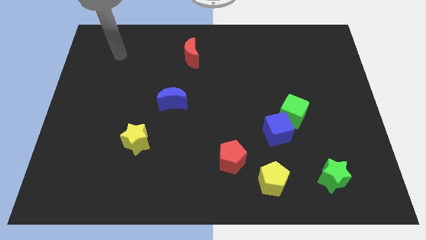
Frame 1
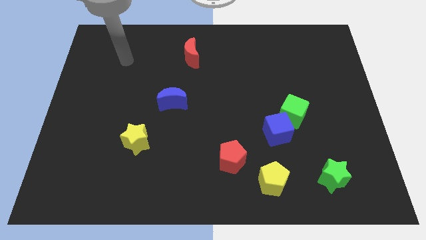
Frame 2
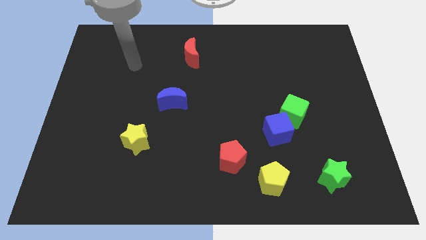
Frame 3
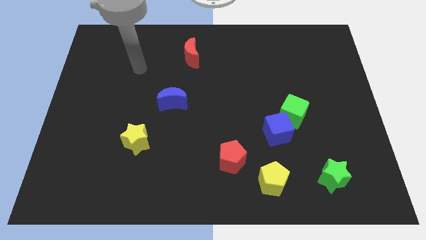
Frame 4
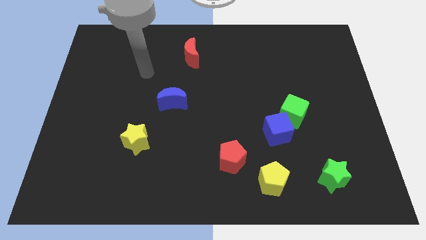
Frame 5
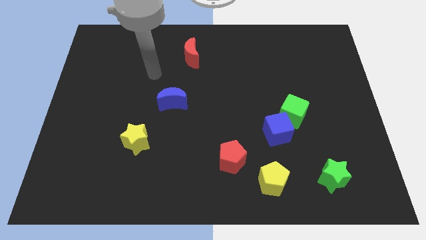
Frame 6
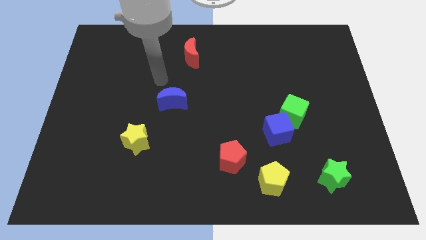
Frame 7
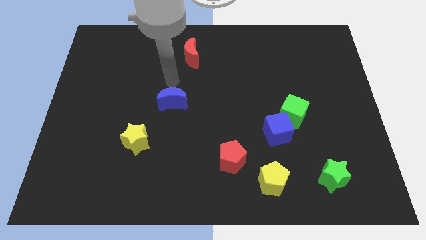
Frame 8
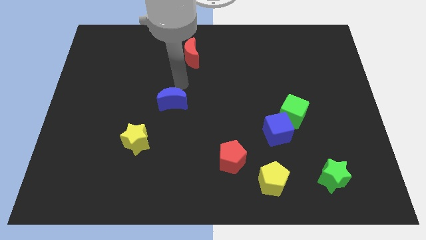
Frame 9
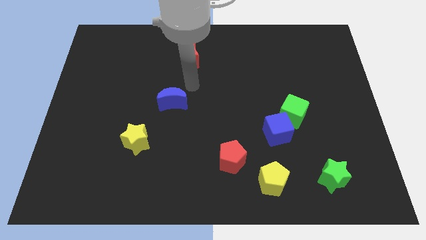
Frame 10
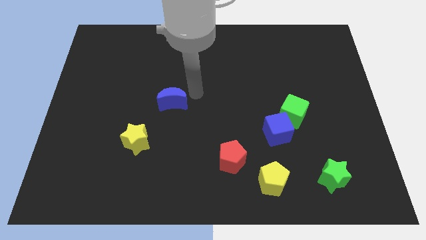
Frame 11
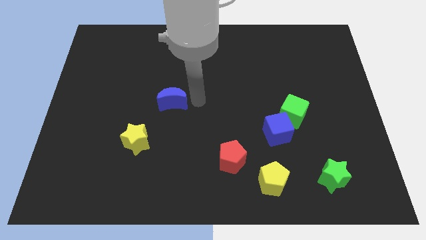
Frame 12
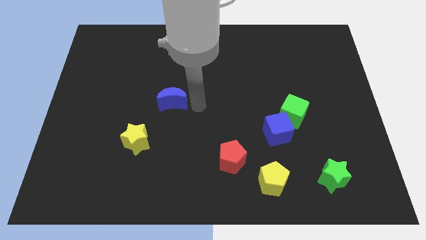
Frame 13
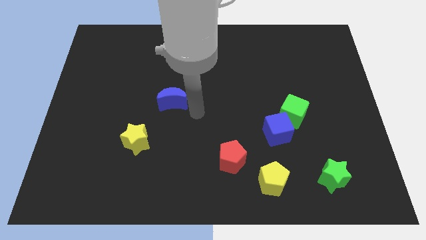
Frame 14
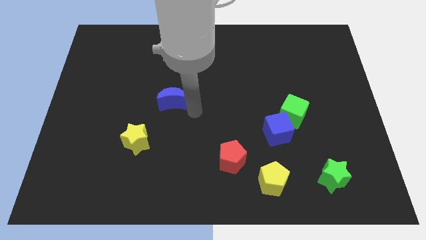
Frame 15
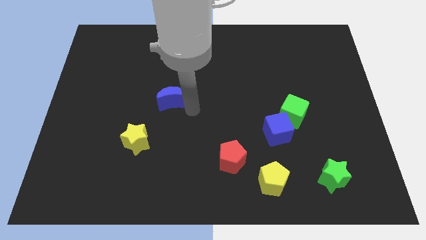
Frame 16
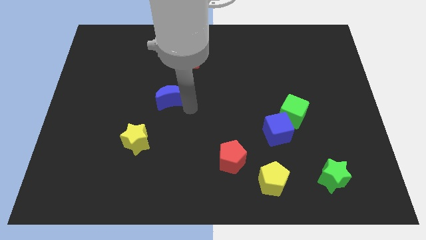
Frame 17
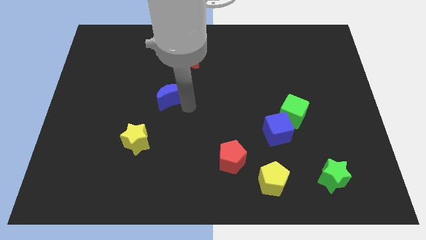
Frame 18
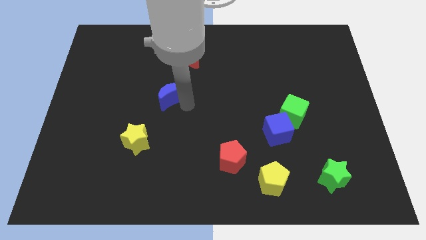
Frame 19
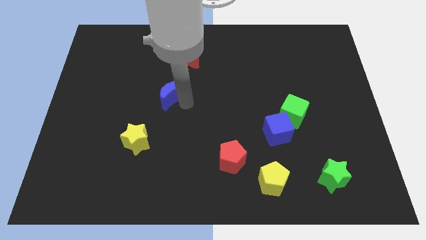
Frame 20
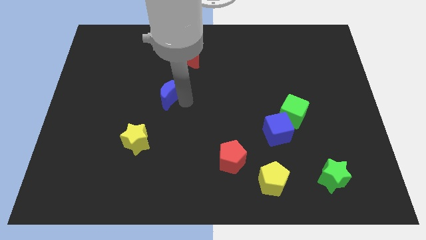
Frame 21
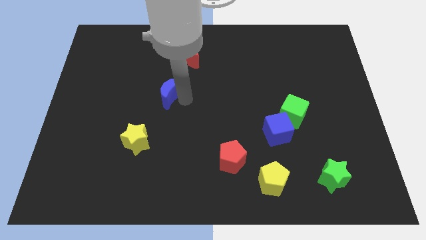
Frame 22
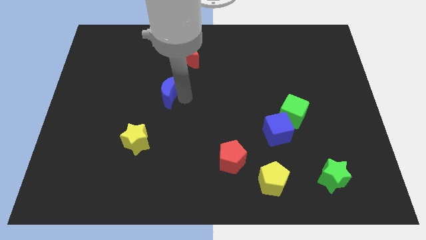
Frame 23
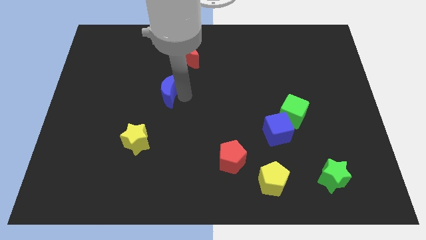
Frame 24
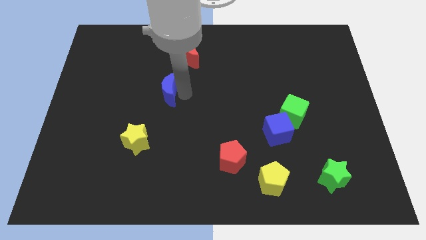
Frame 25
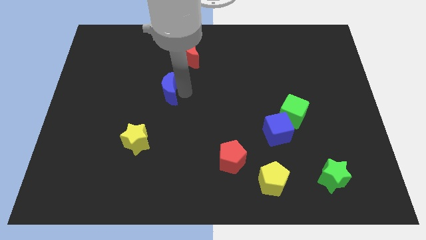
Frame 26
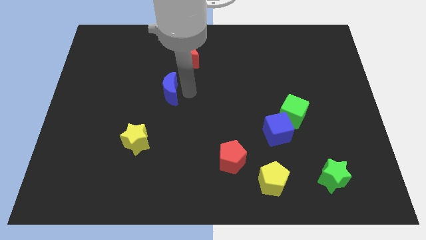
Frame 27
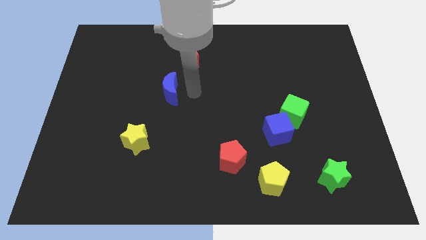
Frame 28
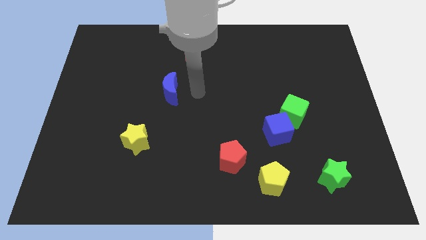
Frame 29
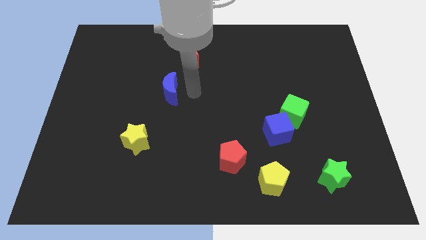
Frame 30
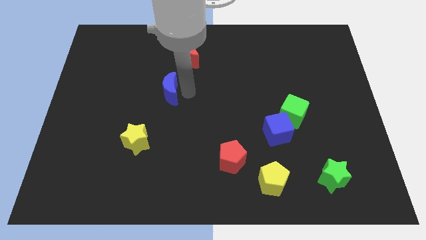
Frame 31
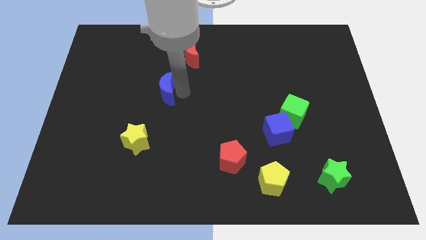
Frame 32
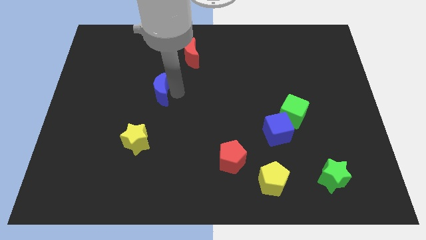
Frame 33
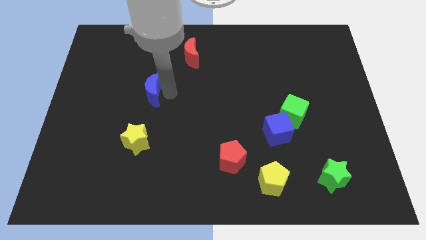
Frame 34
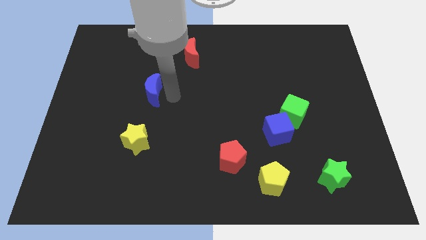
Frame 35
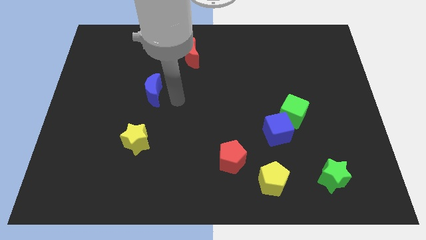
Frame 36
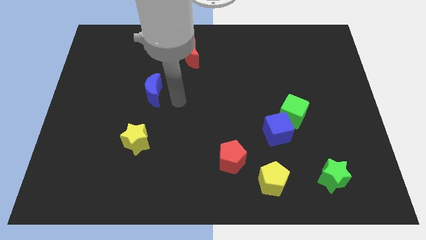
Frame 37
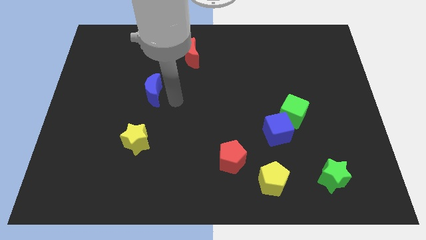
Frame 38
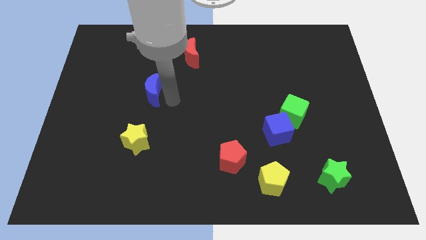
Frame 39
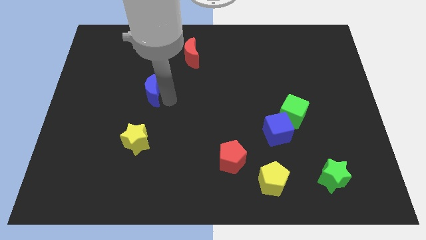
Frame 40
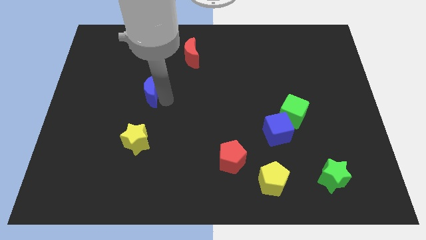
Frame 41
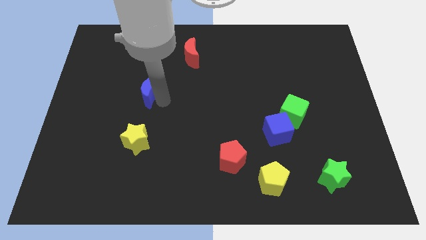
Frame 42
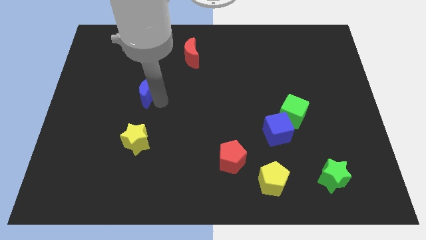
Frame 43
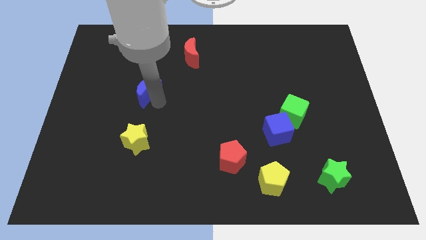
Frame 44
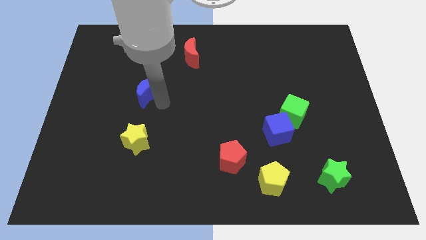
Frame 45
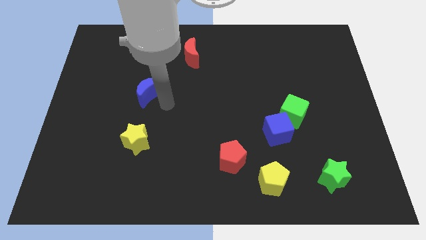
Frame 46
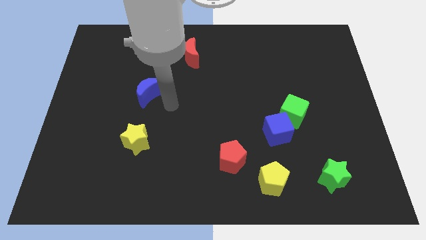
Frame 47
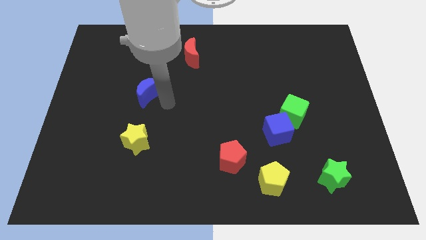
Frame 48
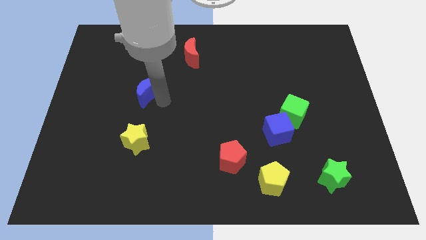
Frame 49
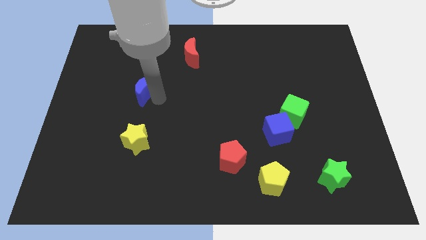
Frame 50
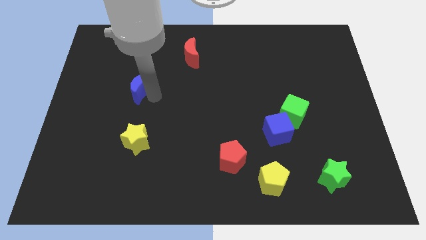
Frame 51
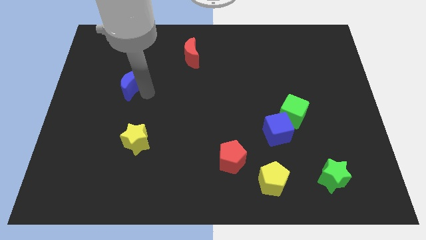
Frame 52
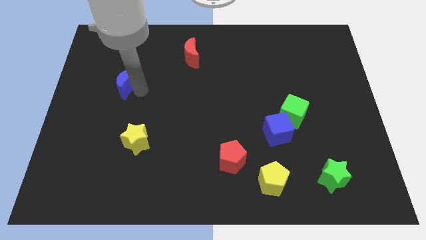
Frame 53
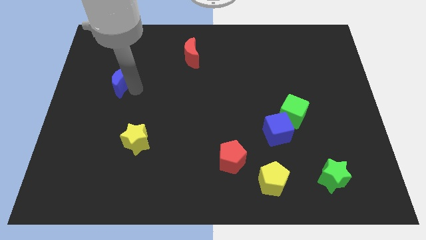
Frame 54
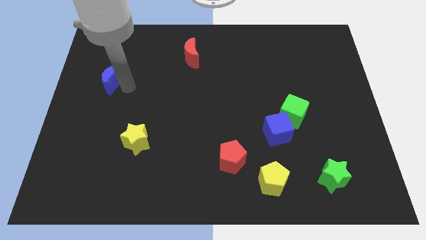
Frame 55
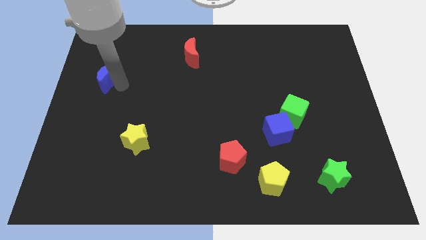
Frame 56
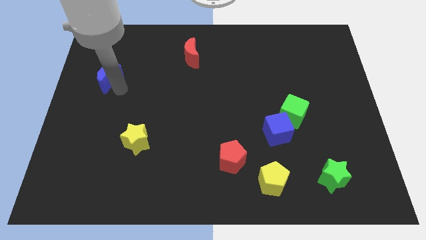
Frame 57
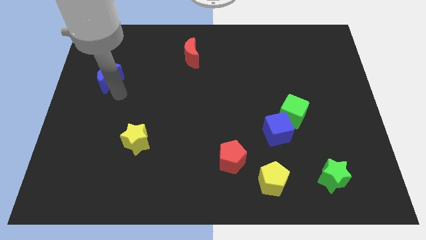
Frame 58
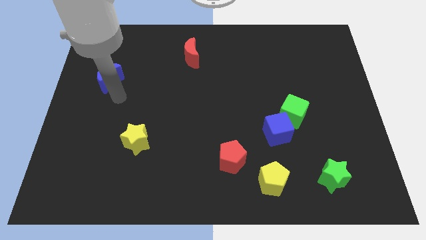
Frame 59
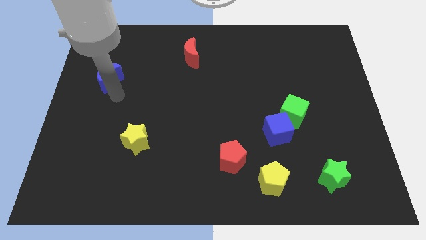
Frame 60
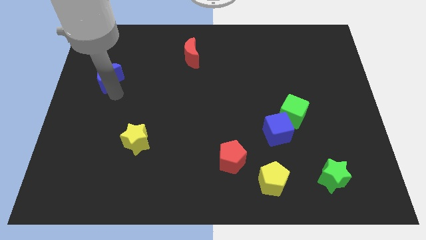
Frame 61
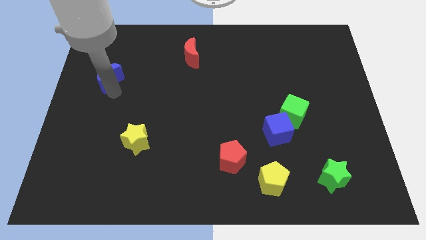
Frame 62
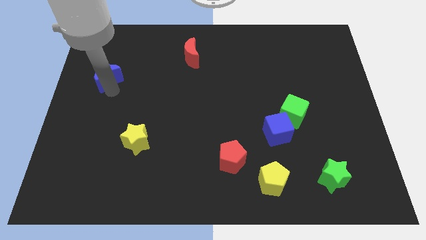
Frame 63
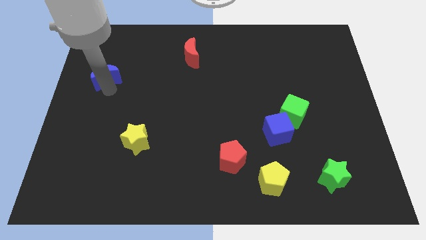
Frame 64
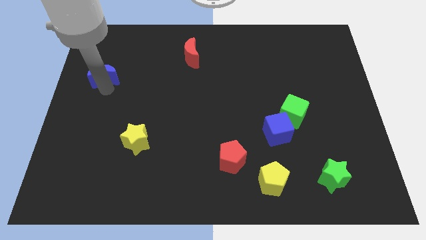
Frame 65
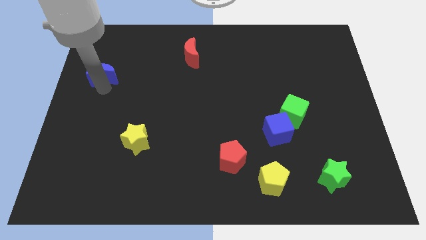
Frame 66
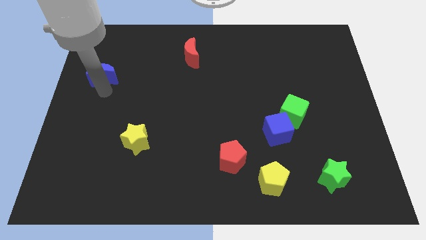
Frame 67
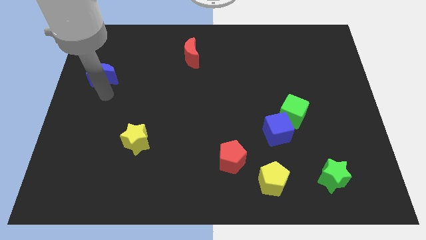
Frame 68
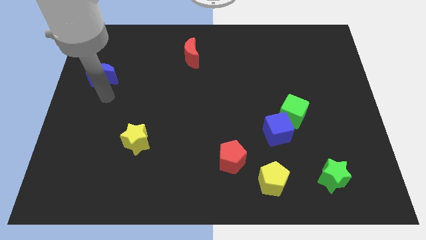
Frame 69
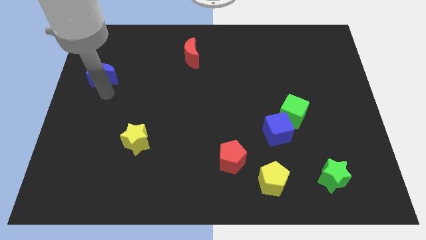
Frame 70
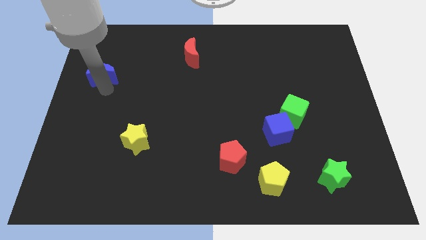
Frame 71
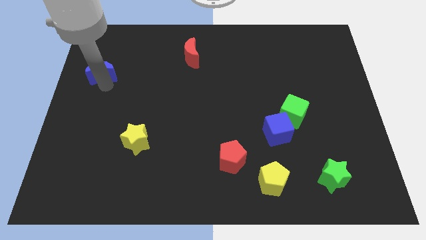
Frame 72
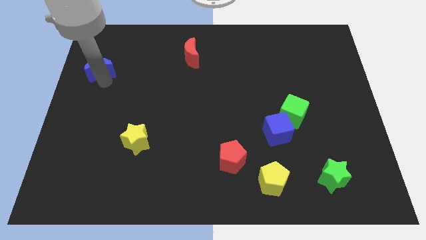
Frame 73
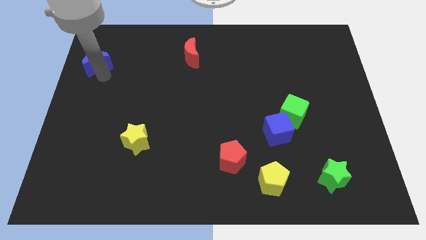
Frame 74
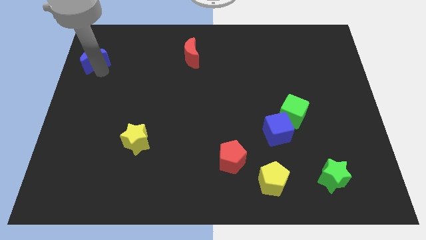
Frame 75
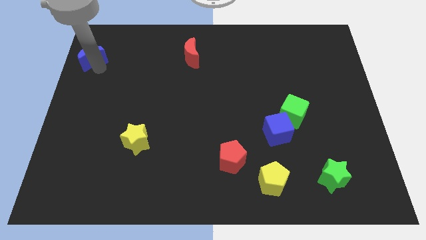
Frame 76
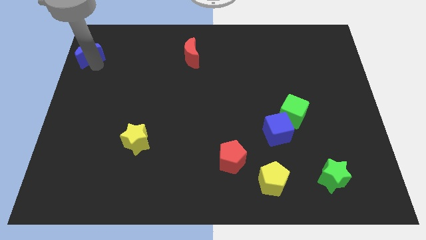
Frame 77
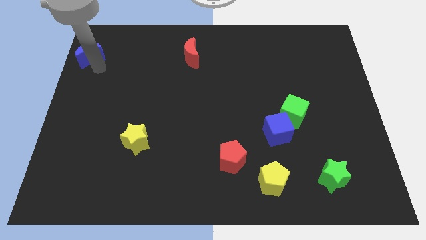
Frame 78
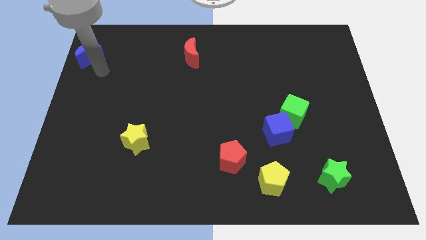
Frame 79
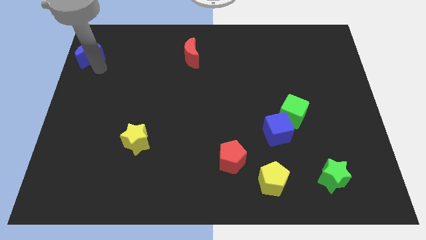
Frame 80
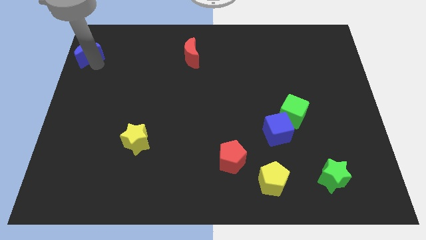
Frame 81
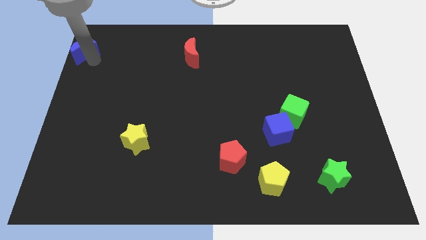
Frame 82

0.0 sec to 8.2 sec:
push the blue moon to the top left corner
